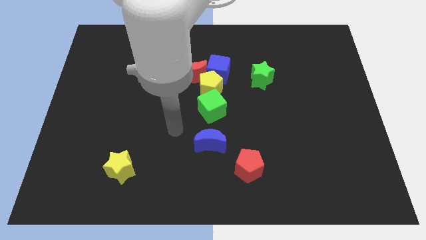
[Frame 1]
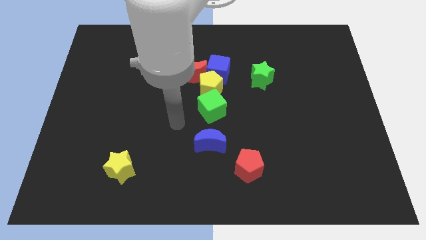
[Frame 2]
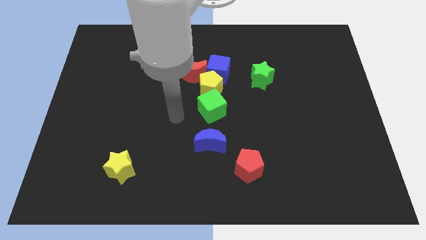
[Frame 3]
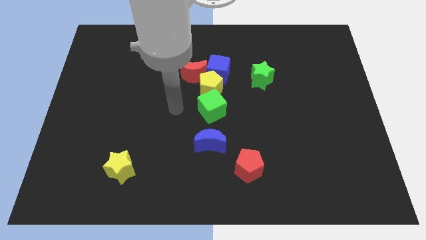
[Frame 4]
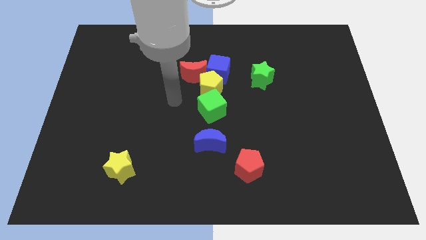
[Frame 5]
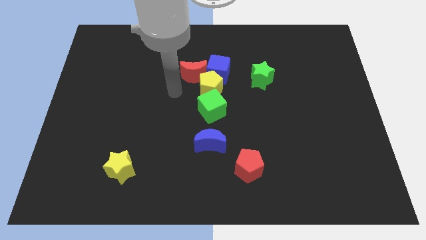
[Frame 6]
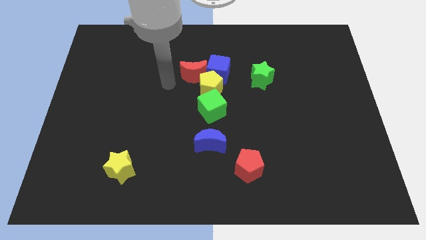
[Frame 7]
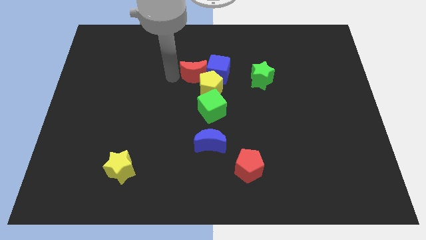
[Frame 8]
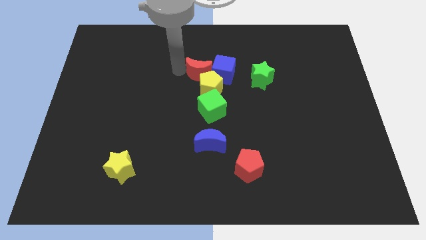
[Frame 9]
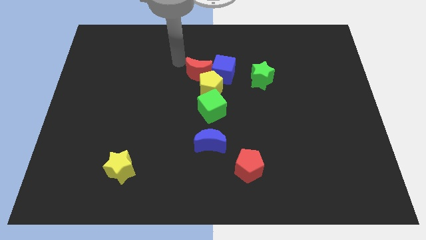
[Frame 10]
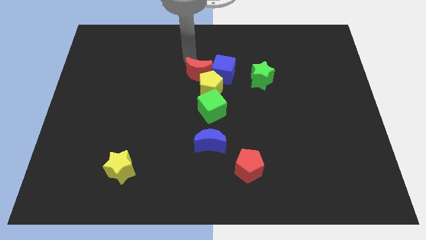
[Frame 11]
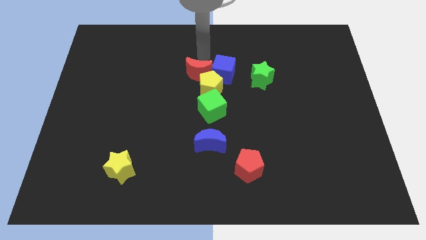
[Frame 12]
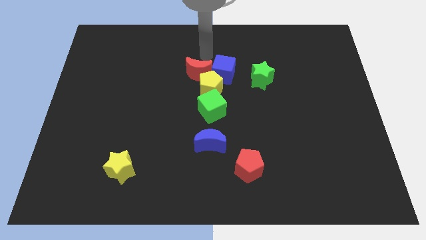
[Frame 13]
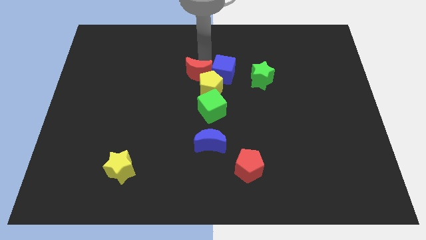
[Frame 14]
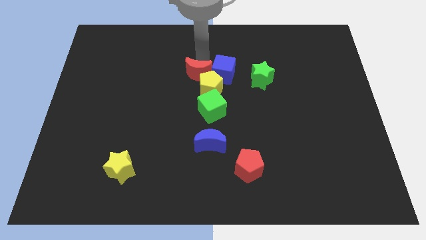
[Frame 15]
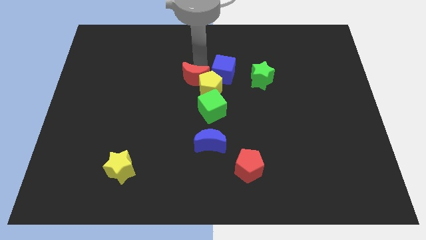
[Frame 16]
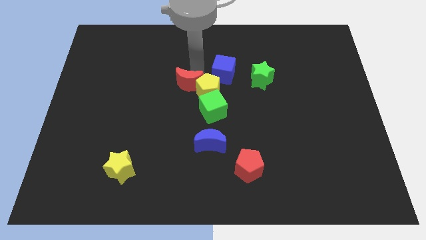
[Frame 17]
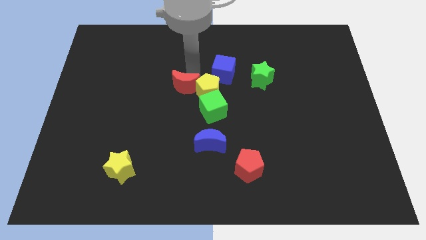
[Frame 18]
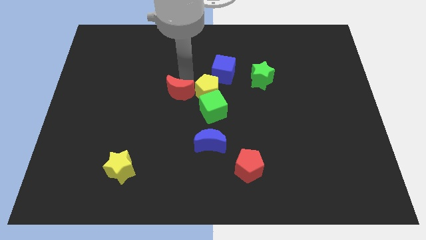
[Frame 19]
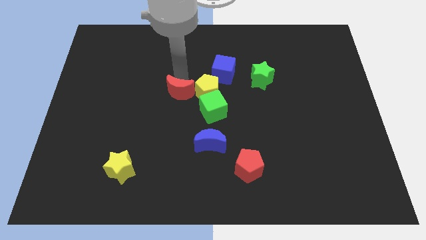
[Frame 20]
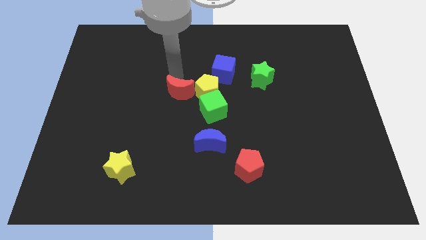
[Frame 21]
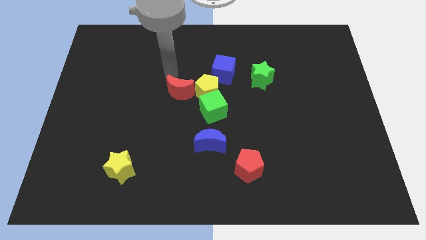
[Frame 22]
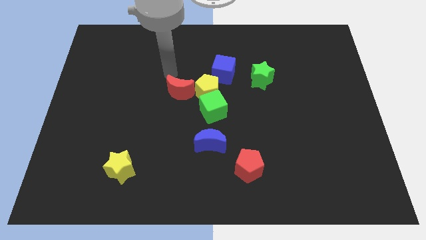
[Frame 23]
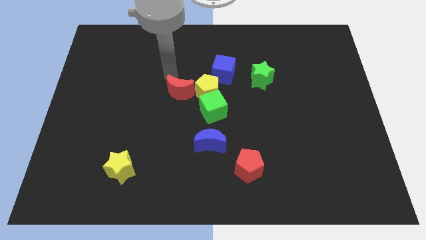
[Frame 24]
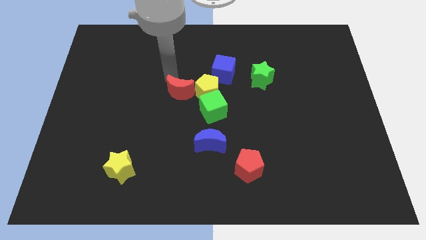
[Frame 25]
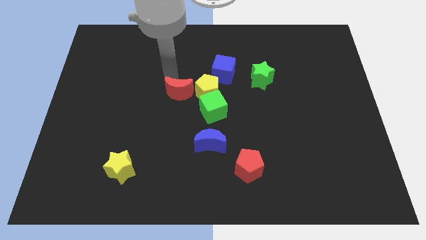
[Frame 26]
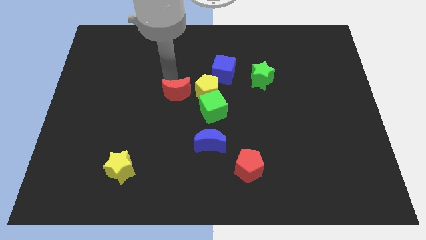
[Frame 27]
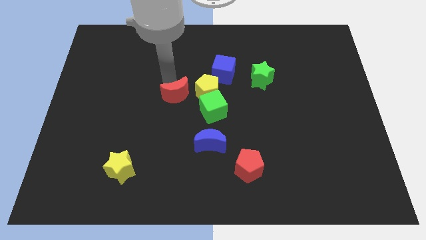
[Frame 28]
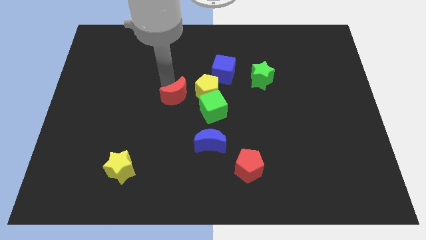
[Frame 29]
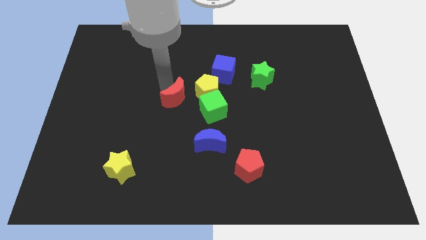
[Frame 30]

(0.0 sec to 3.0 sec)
push the red moon down a bit

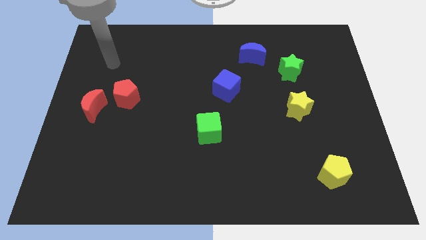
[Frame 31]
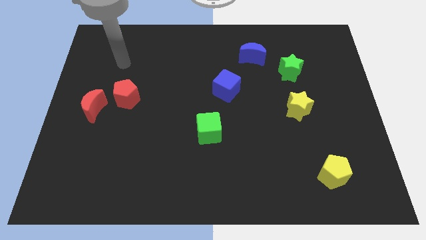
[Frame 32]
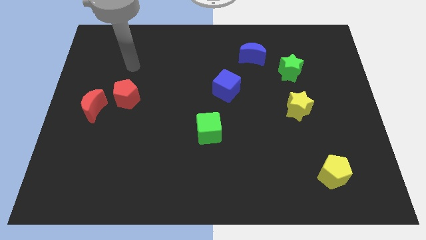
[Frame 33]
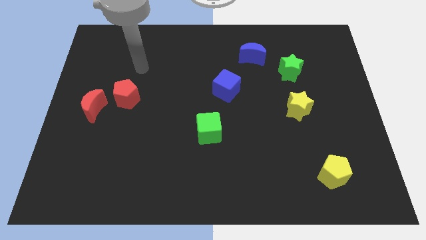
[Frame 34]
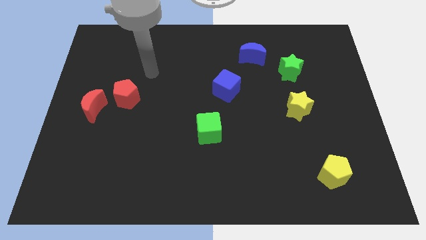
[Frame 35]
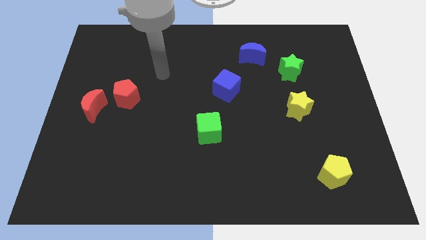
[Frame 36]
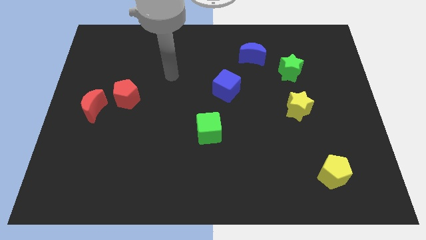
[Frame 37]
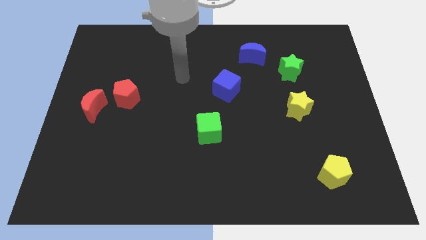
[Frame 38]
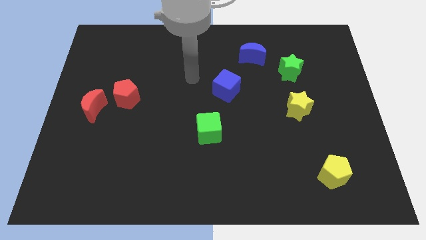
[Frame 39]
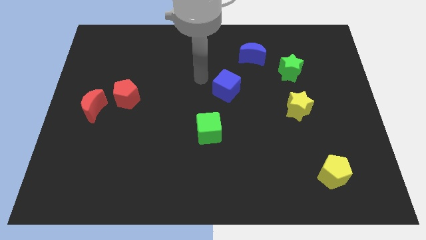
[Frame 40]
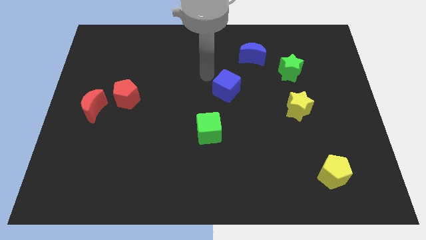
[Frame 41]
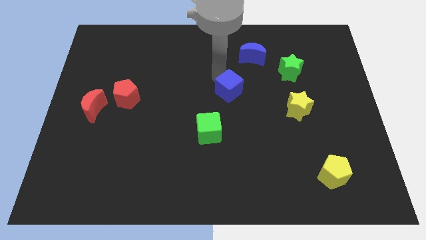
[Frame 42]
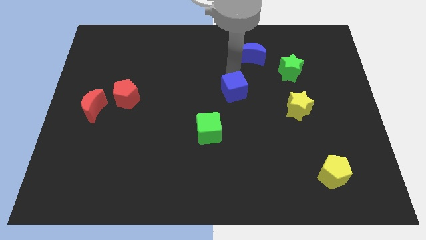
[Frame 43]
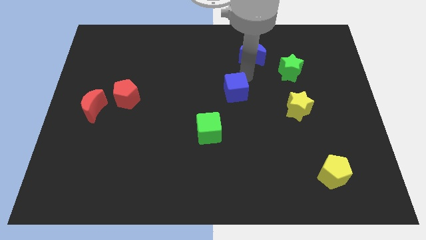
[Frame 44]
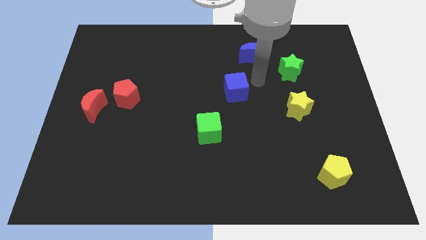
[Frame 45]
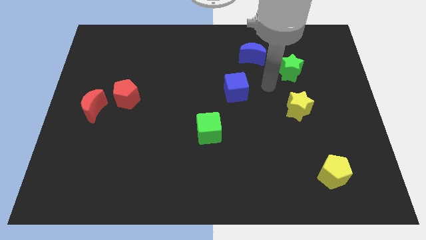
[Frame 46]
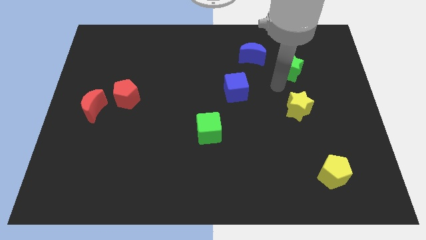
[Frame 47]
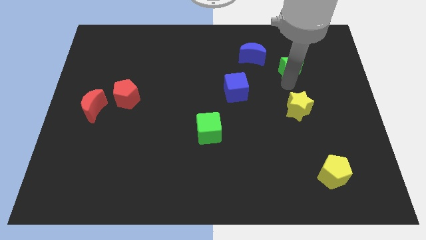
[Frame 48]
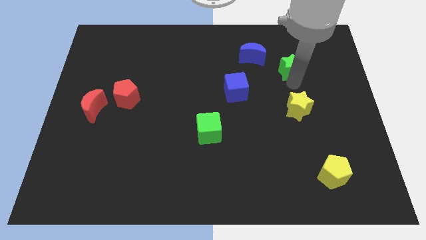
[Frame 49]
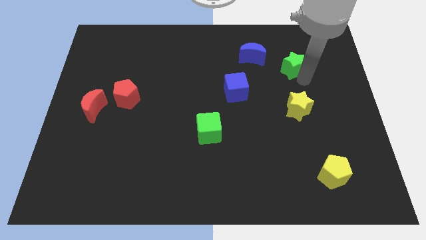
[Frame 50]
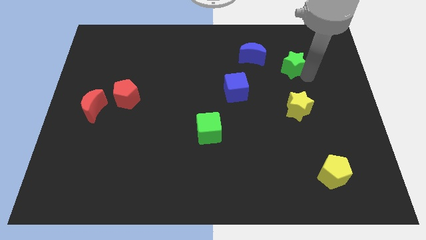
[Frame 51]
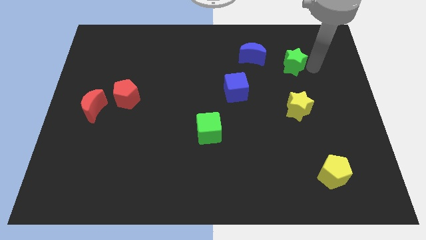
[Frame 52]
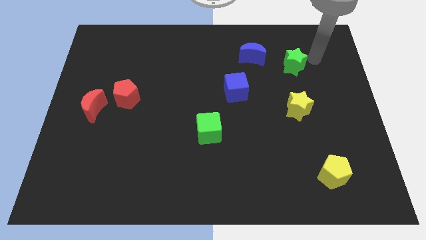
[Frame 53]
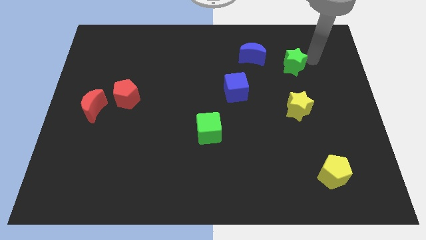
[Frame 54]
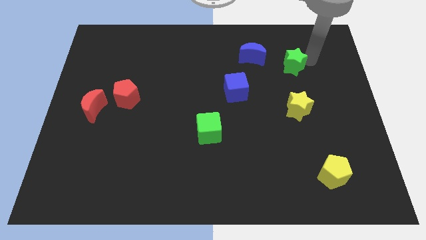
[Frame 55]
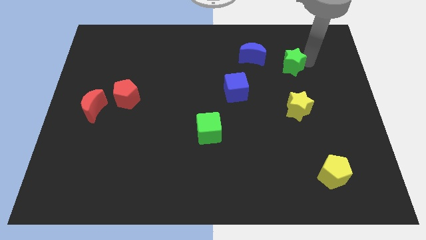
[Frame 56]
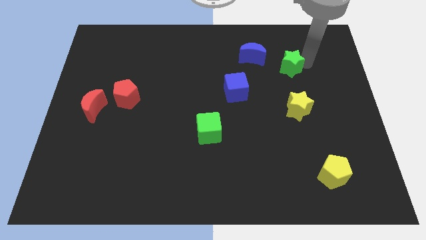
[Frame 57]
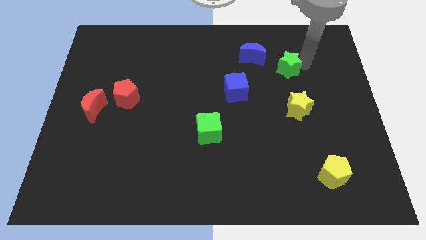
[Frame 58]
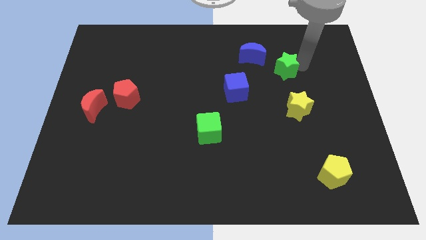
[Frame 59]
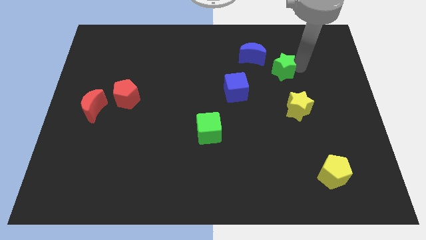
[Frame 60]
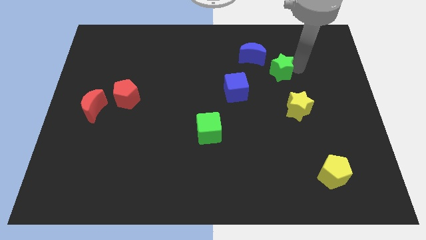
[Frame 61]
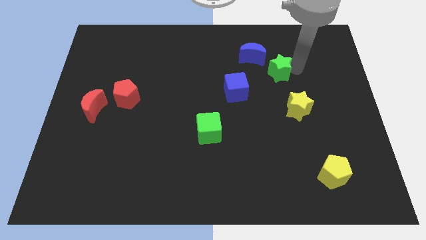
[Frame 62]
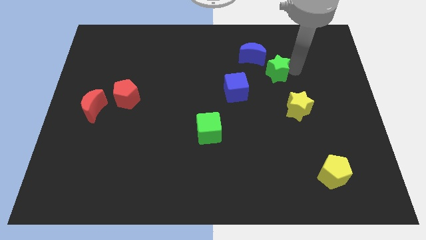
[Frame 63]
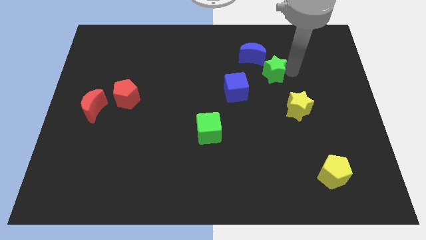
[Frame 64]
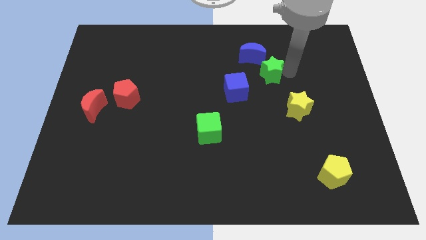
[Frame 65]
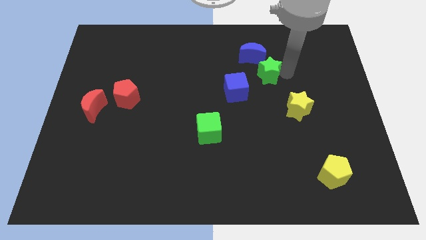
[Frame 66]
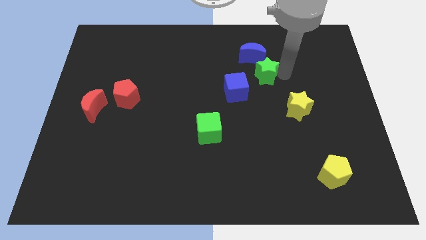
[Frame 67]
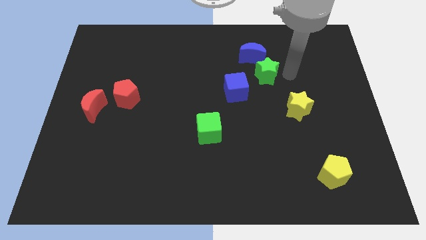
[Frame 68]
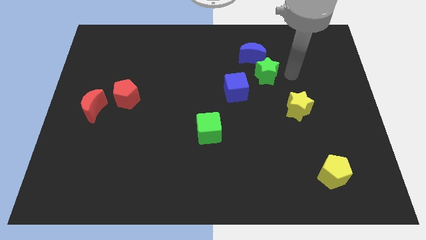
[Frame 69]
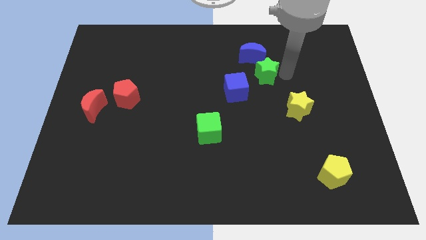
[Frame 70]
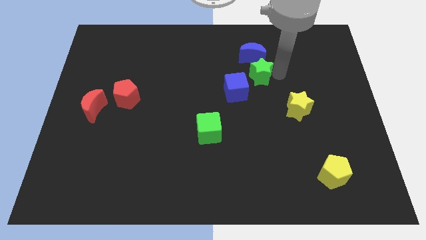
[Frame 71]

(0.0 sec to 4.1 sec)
push the green star to the left a little bit

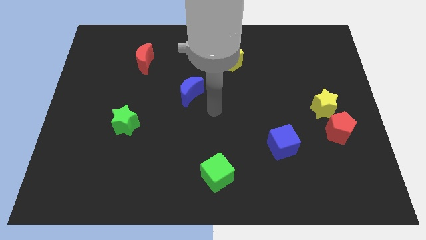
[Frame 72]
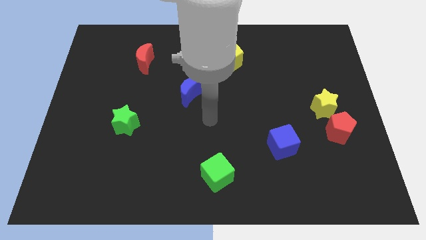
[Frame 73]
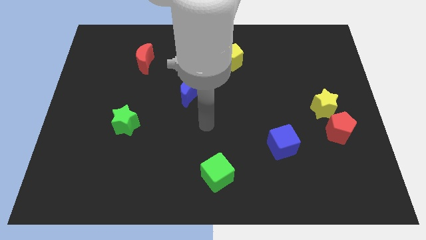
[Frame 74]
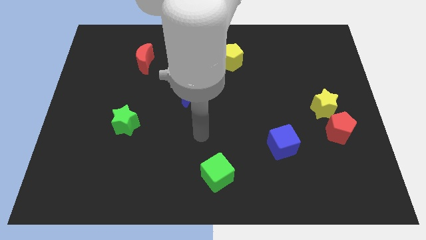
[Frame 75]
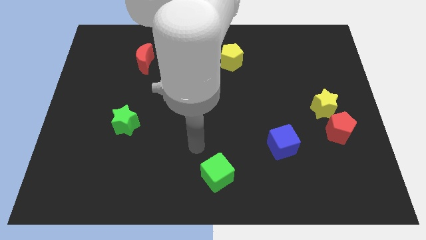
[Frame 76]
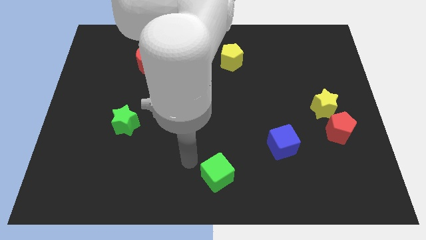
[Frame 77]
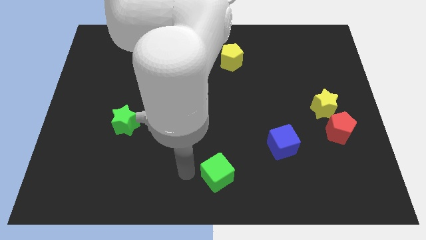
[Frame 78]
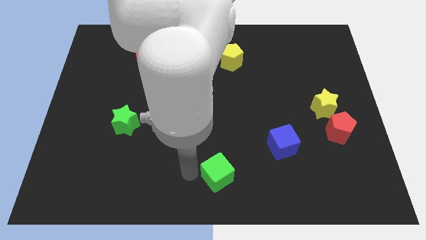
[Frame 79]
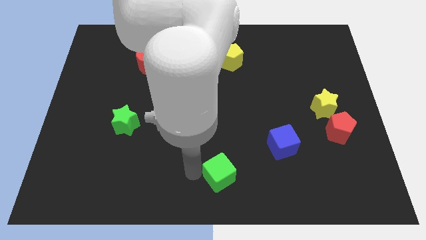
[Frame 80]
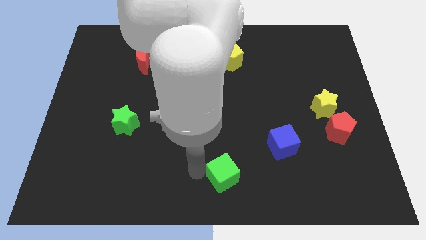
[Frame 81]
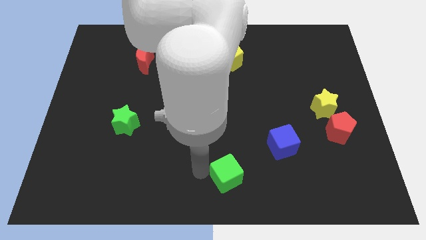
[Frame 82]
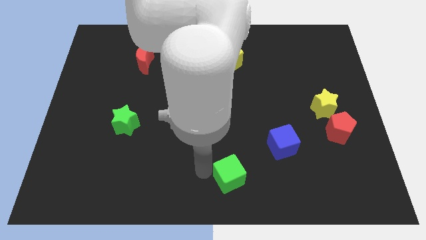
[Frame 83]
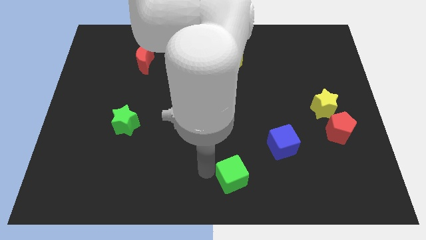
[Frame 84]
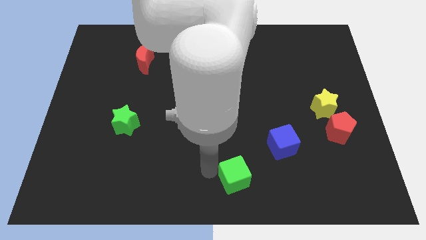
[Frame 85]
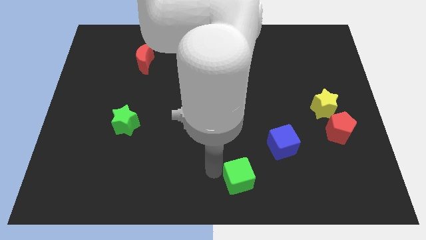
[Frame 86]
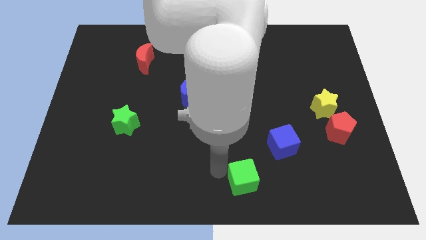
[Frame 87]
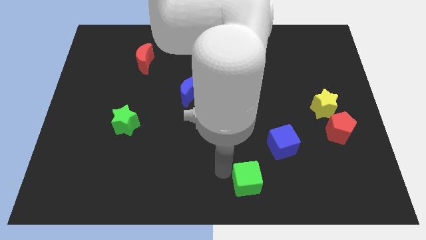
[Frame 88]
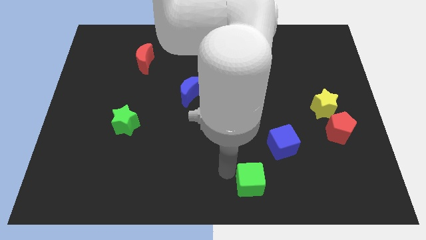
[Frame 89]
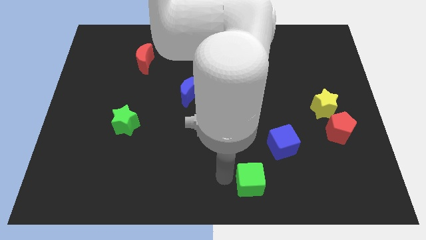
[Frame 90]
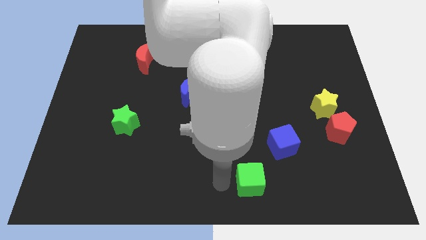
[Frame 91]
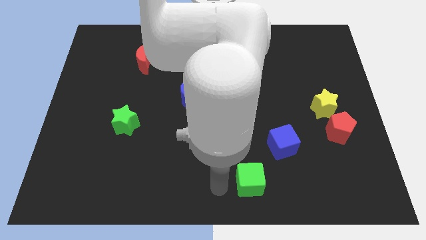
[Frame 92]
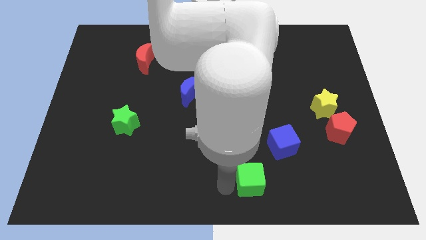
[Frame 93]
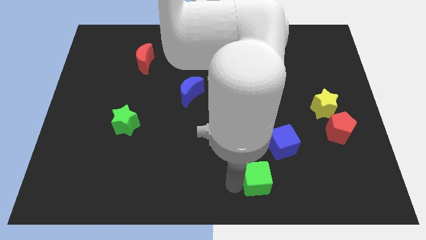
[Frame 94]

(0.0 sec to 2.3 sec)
push the green cube slightly right
